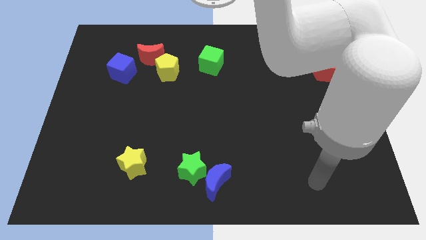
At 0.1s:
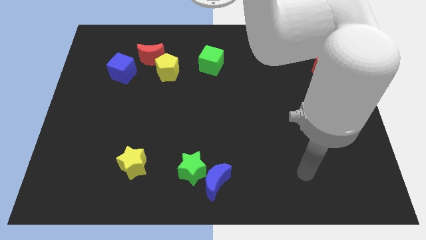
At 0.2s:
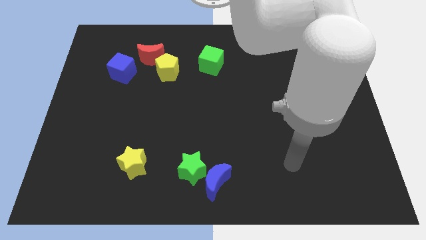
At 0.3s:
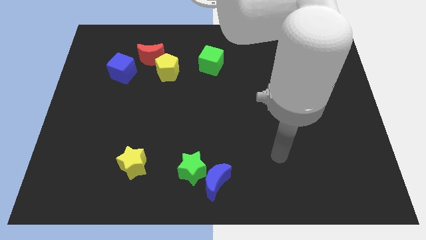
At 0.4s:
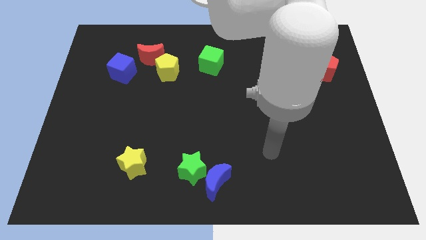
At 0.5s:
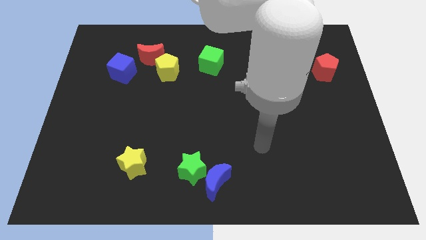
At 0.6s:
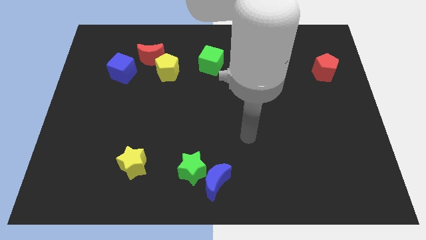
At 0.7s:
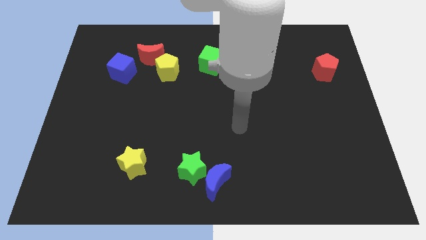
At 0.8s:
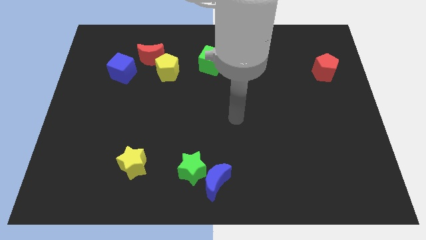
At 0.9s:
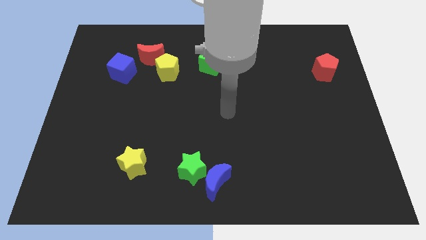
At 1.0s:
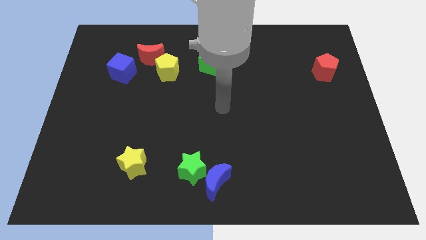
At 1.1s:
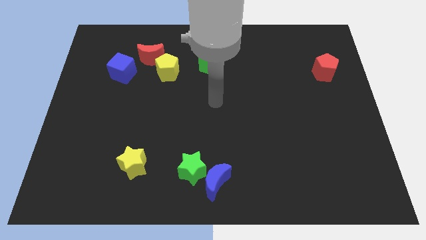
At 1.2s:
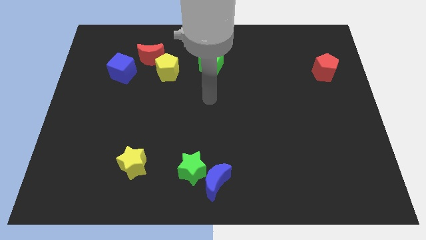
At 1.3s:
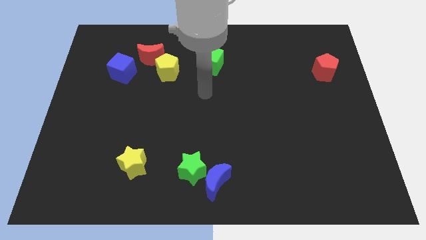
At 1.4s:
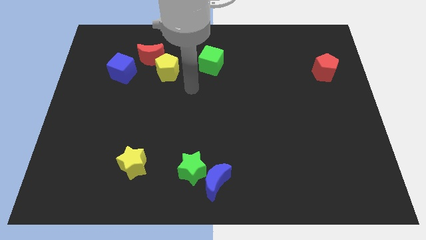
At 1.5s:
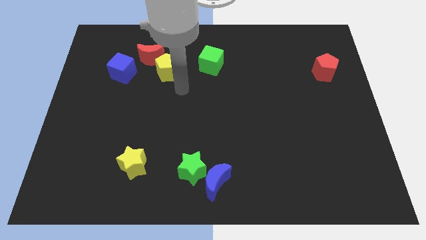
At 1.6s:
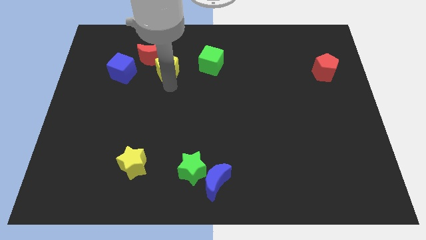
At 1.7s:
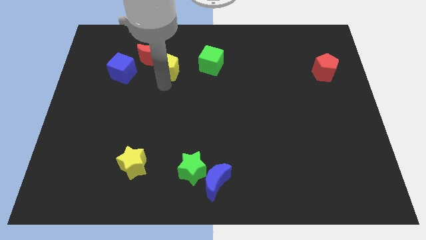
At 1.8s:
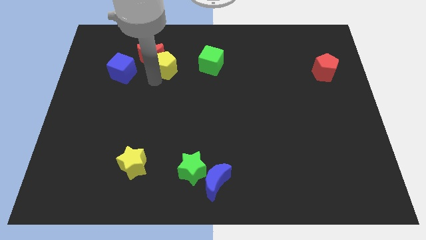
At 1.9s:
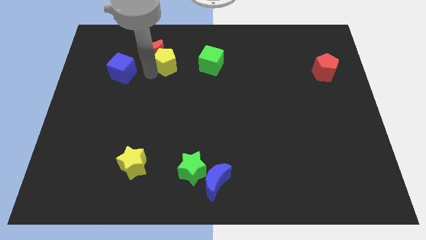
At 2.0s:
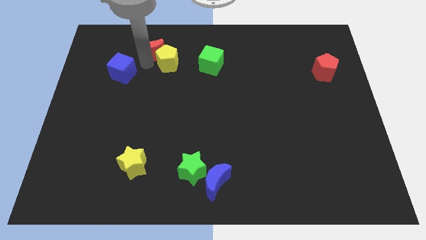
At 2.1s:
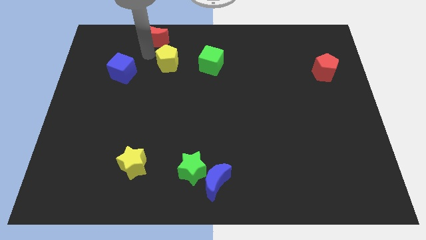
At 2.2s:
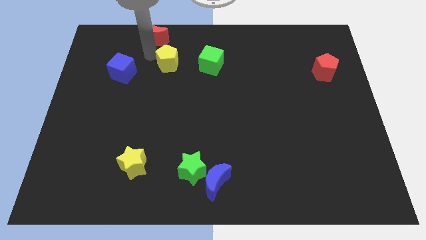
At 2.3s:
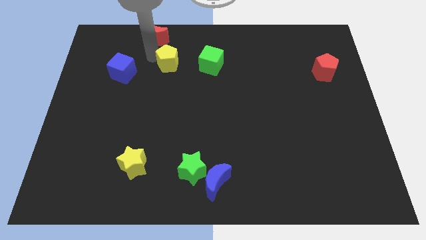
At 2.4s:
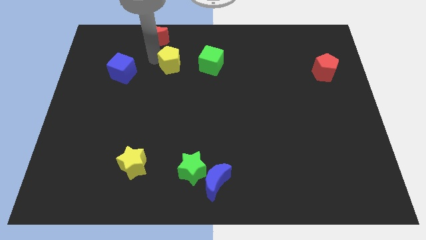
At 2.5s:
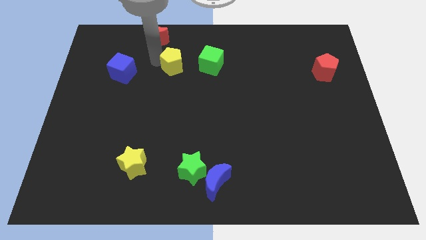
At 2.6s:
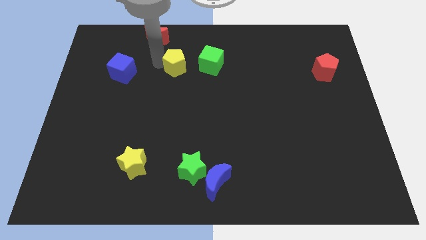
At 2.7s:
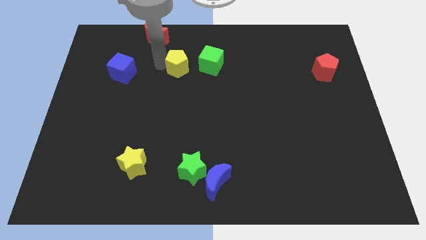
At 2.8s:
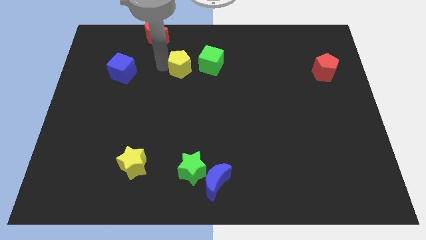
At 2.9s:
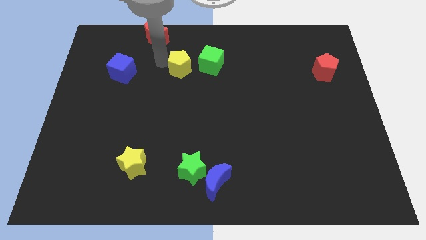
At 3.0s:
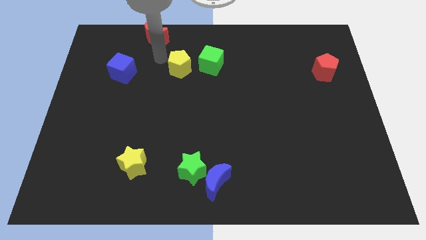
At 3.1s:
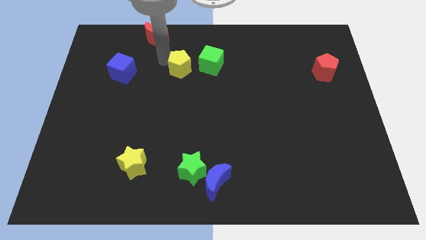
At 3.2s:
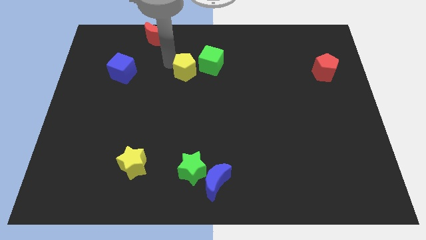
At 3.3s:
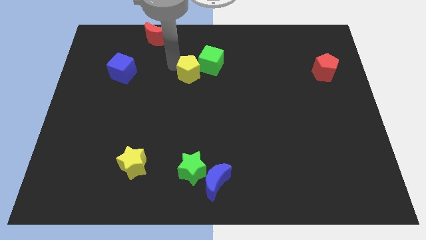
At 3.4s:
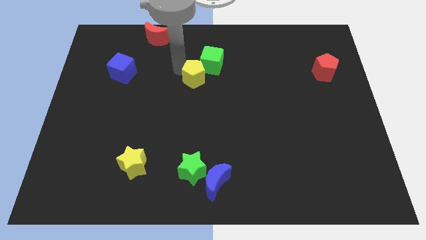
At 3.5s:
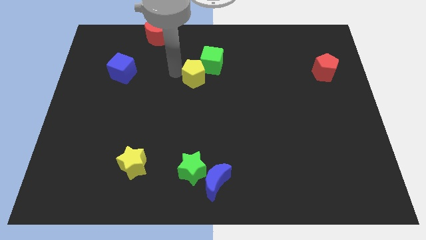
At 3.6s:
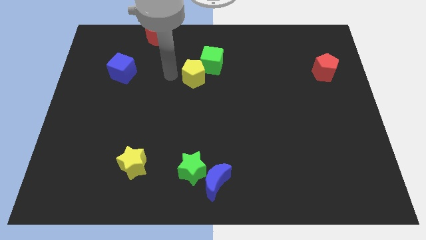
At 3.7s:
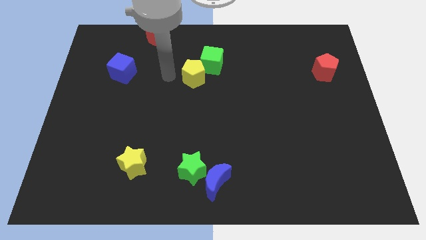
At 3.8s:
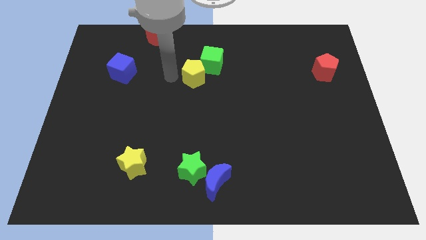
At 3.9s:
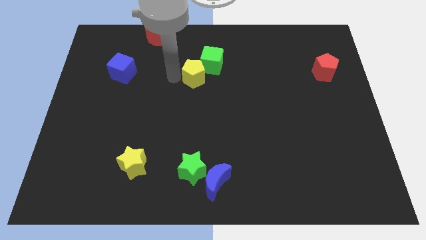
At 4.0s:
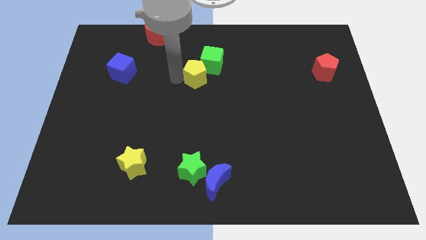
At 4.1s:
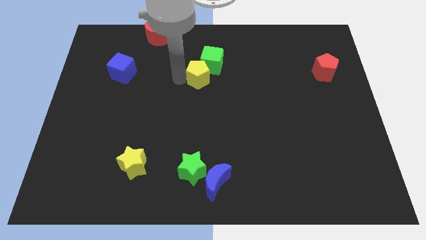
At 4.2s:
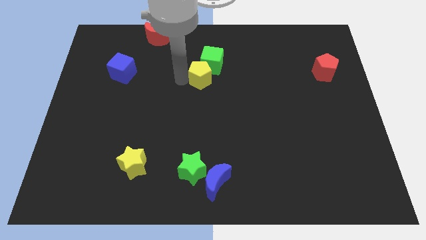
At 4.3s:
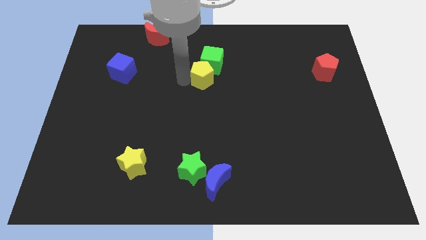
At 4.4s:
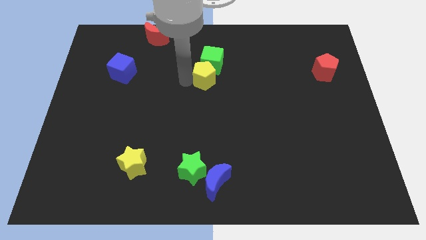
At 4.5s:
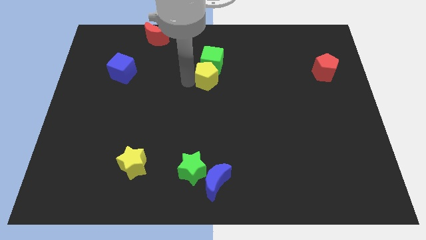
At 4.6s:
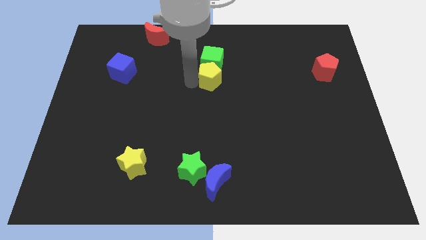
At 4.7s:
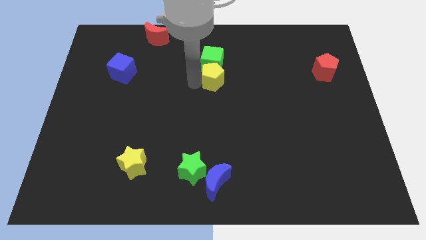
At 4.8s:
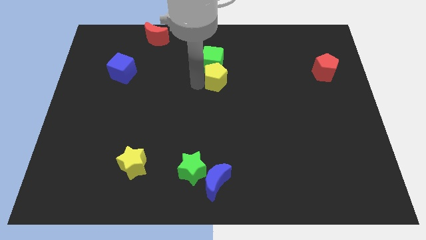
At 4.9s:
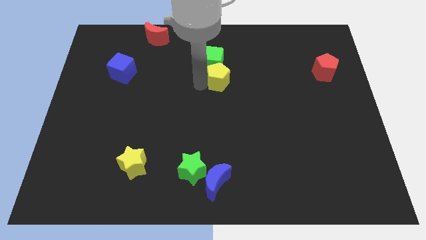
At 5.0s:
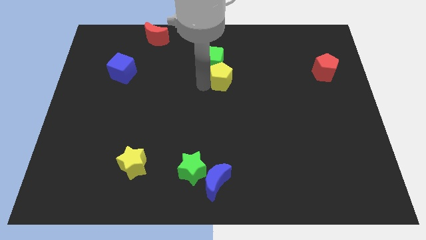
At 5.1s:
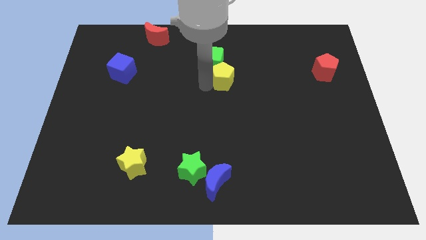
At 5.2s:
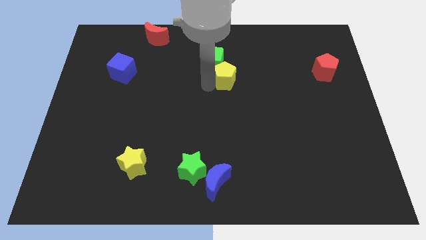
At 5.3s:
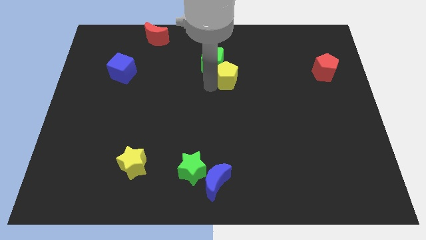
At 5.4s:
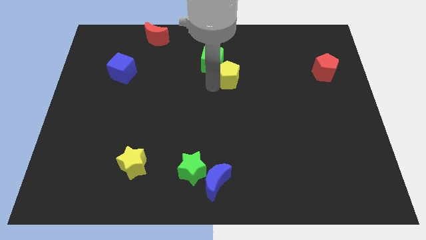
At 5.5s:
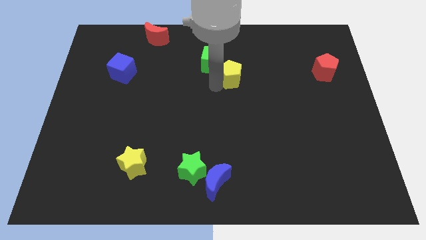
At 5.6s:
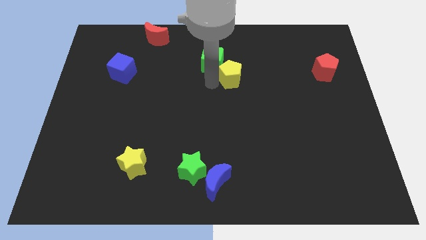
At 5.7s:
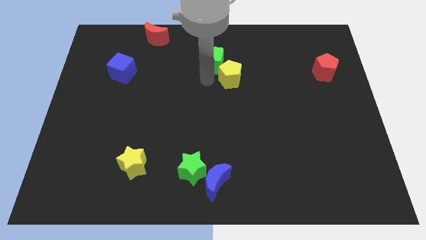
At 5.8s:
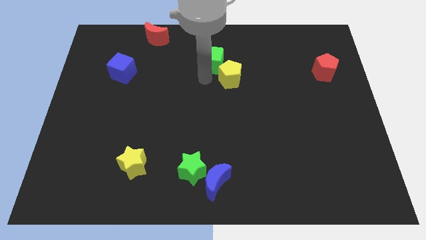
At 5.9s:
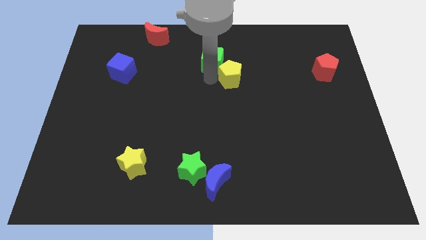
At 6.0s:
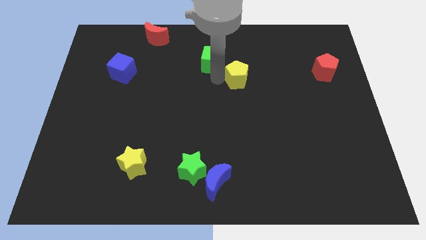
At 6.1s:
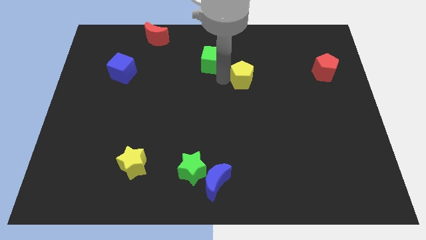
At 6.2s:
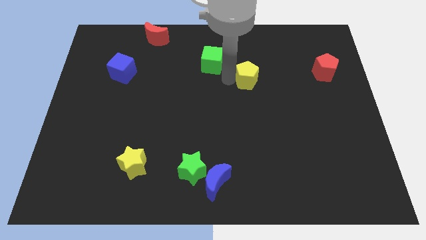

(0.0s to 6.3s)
move the yellow pentagon right

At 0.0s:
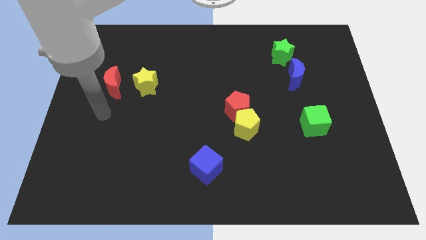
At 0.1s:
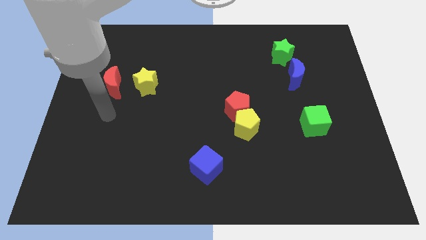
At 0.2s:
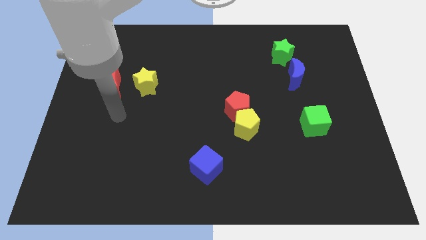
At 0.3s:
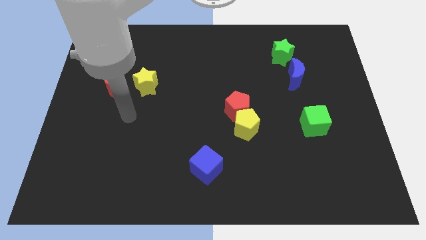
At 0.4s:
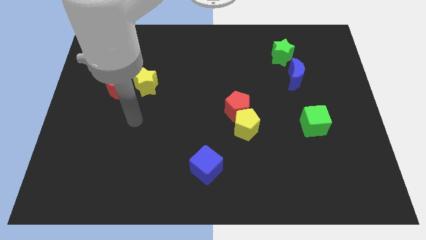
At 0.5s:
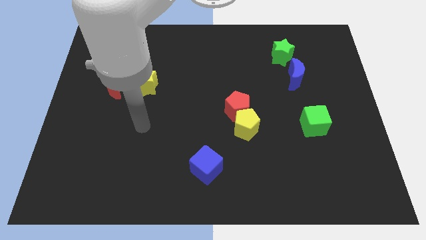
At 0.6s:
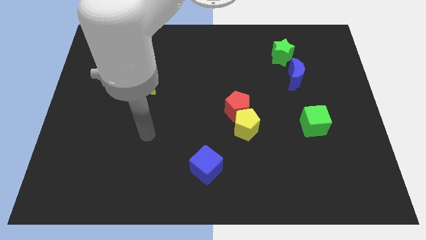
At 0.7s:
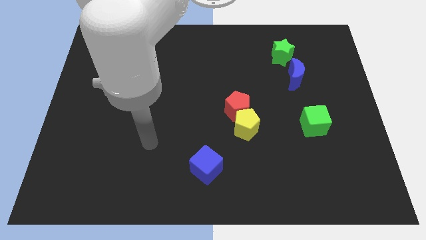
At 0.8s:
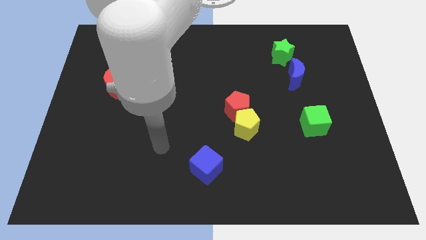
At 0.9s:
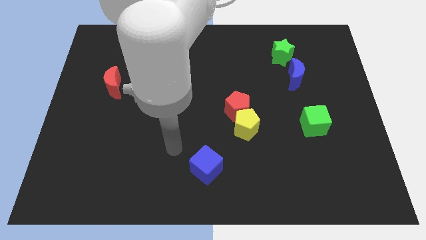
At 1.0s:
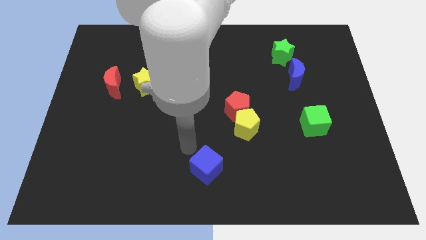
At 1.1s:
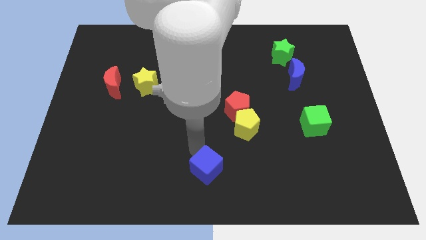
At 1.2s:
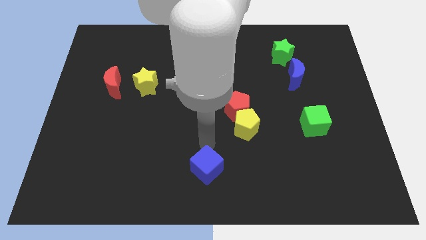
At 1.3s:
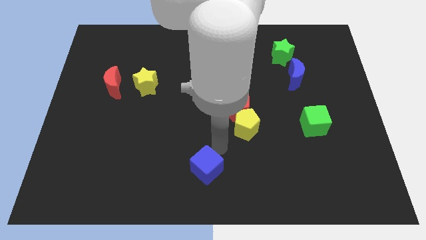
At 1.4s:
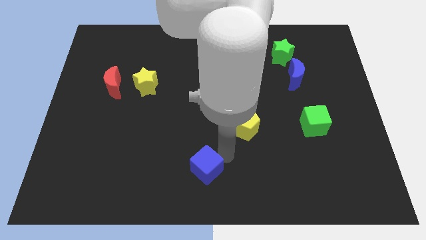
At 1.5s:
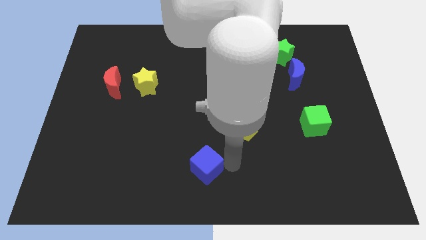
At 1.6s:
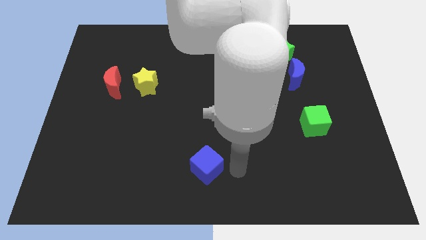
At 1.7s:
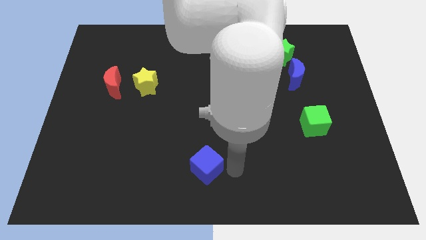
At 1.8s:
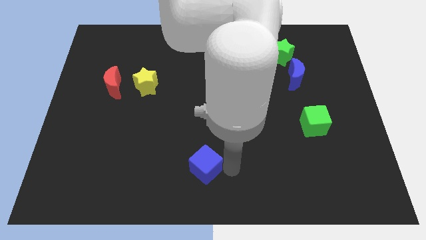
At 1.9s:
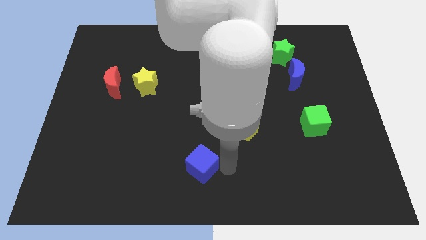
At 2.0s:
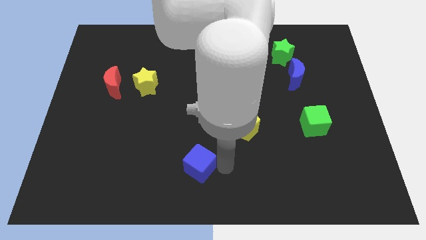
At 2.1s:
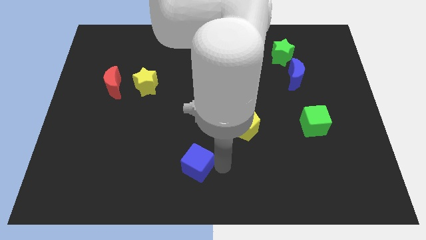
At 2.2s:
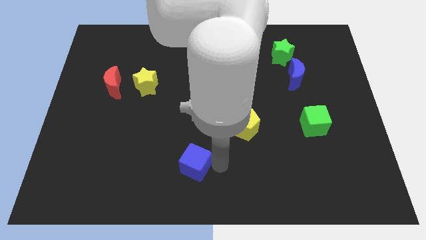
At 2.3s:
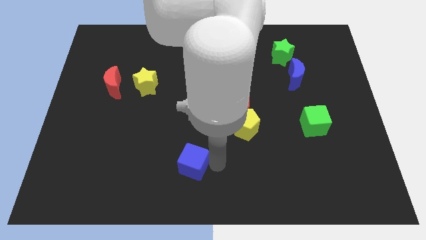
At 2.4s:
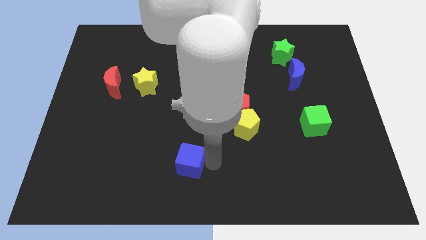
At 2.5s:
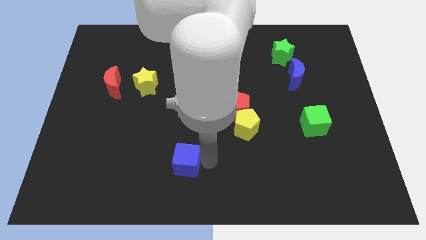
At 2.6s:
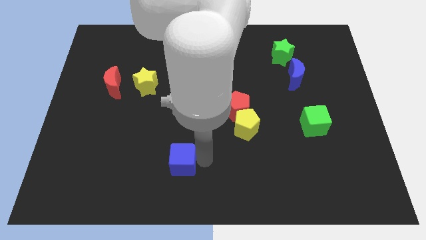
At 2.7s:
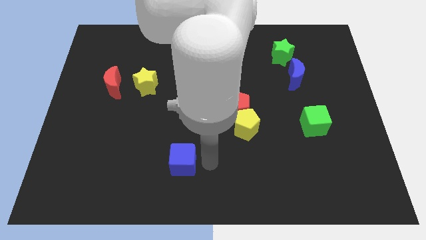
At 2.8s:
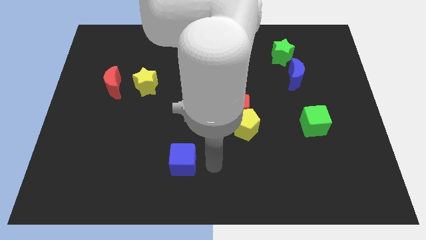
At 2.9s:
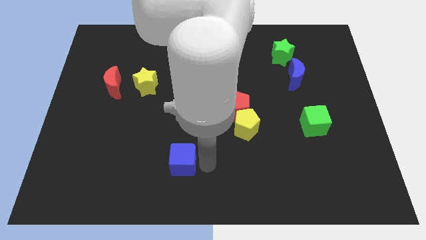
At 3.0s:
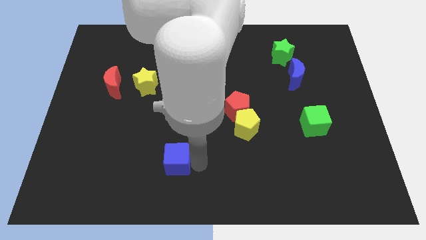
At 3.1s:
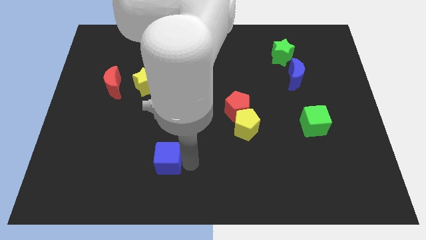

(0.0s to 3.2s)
move the blue cube a bit to the left
